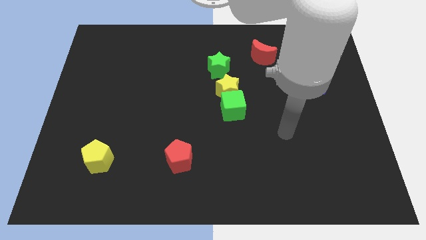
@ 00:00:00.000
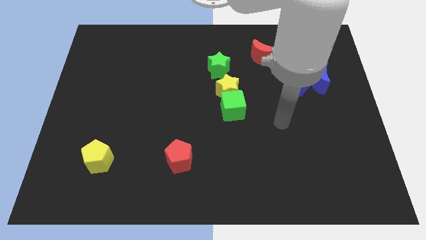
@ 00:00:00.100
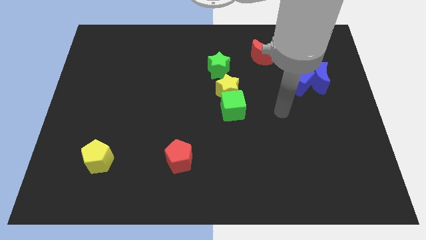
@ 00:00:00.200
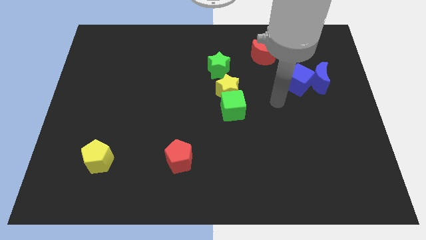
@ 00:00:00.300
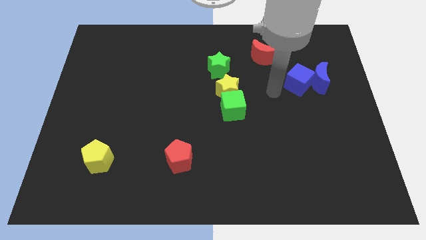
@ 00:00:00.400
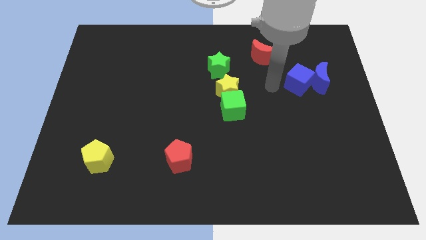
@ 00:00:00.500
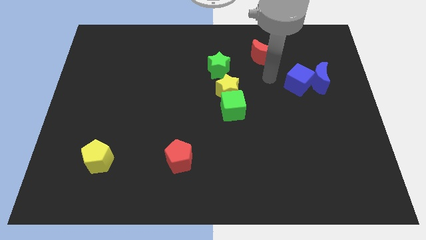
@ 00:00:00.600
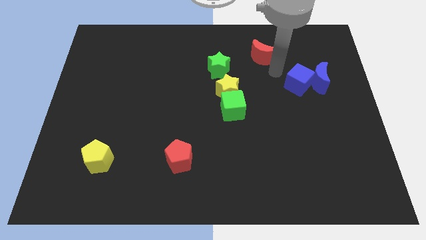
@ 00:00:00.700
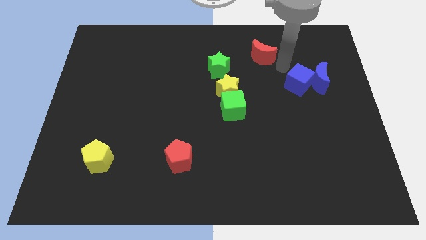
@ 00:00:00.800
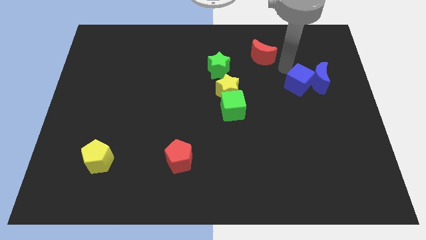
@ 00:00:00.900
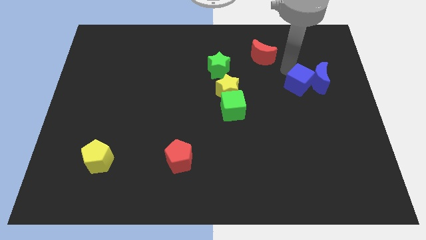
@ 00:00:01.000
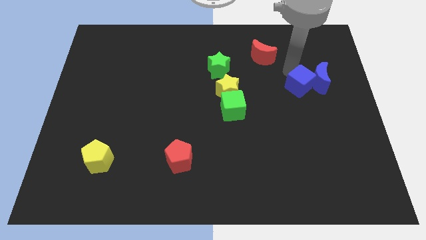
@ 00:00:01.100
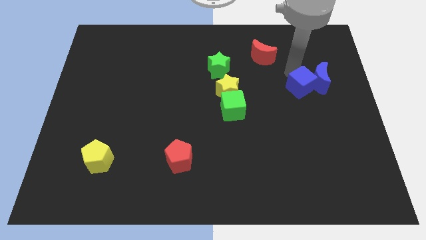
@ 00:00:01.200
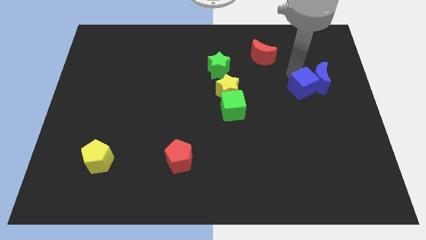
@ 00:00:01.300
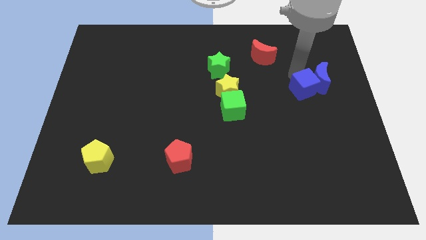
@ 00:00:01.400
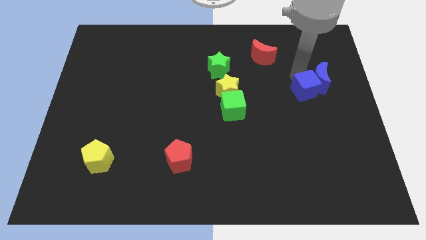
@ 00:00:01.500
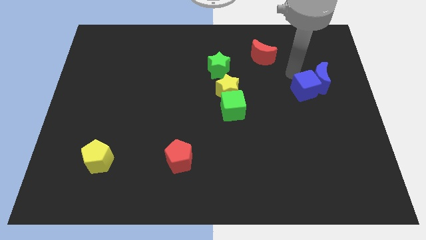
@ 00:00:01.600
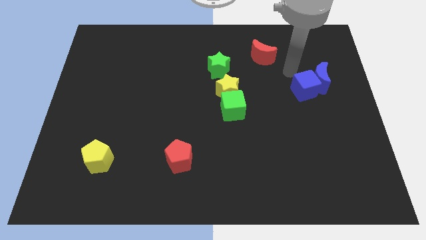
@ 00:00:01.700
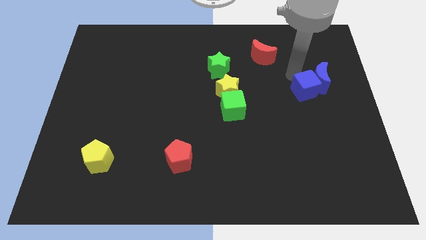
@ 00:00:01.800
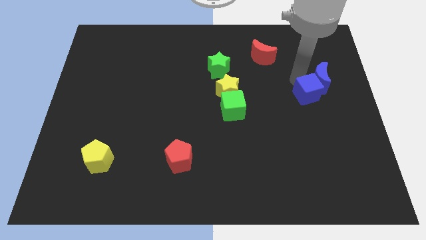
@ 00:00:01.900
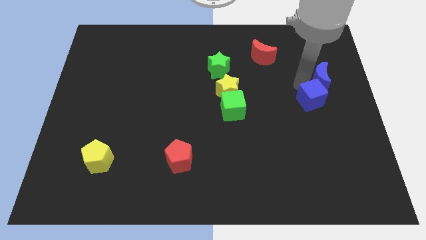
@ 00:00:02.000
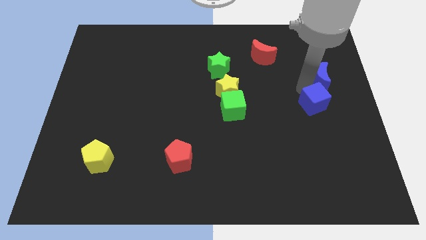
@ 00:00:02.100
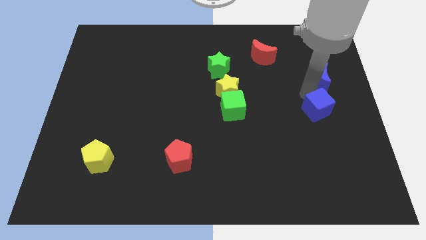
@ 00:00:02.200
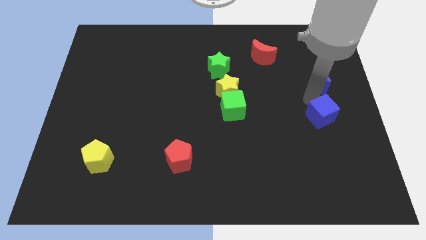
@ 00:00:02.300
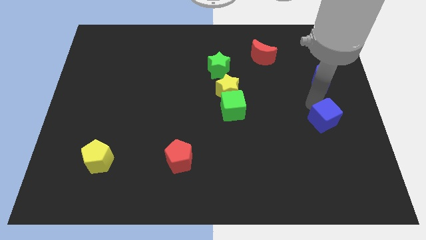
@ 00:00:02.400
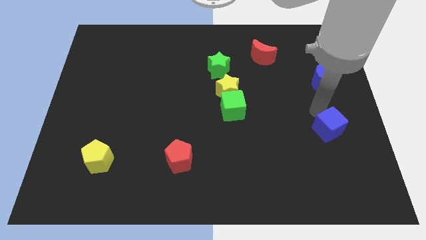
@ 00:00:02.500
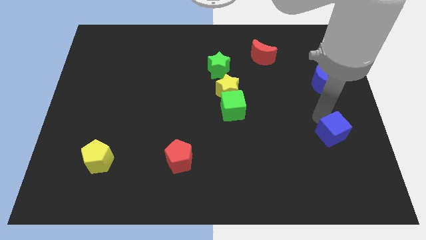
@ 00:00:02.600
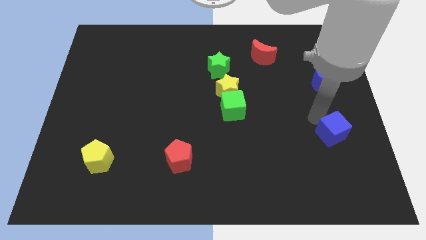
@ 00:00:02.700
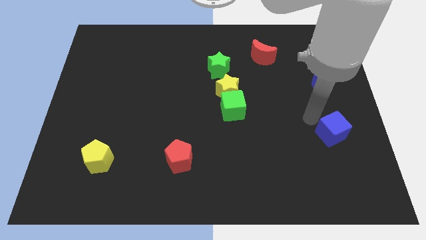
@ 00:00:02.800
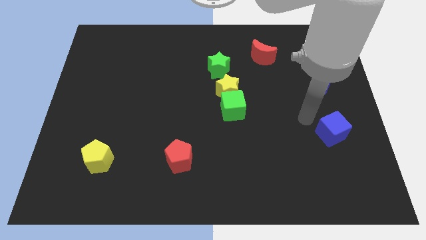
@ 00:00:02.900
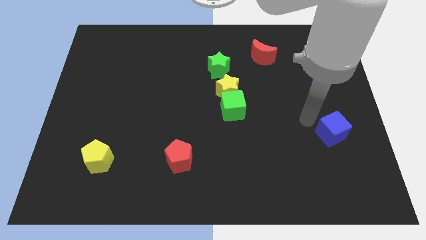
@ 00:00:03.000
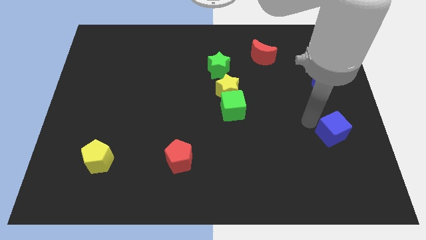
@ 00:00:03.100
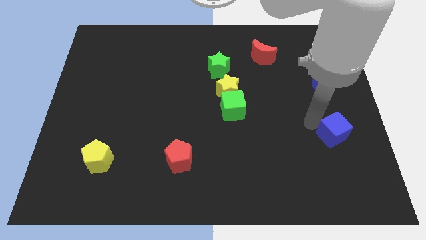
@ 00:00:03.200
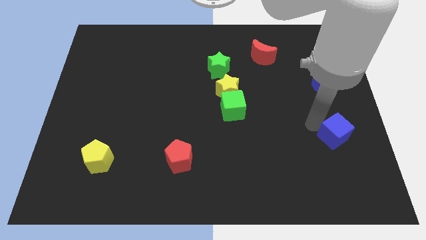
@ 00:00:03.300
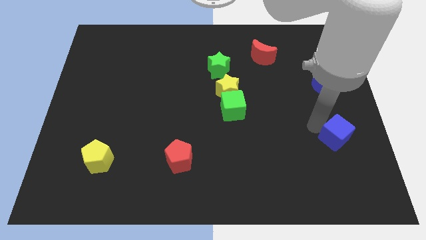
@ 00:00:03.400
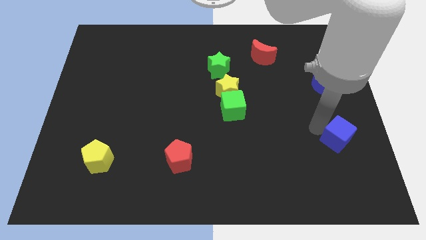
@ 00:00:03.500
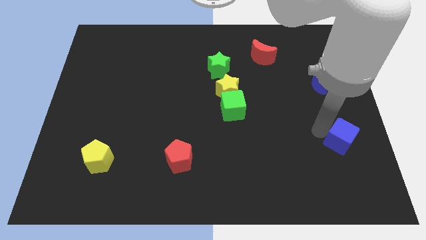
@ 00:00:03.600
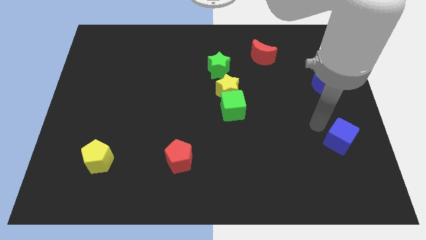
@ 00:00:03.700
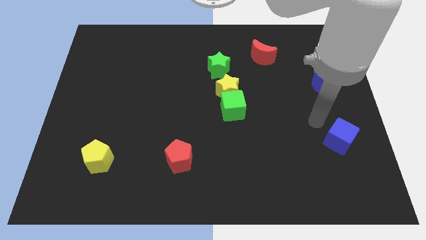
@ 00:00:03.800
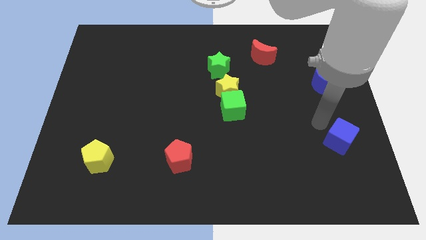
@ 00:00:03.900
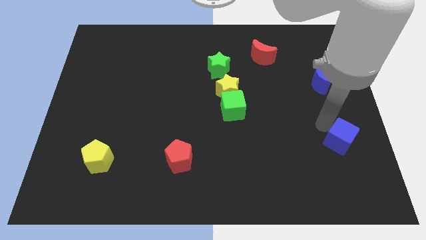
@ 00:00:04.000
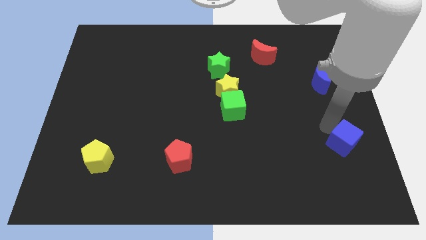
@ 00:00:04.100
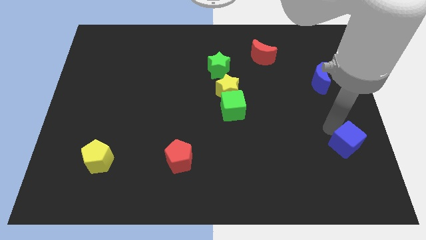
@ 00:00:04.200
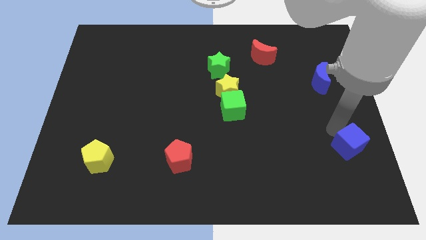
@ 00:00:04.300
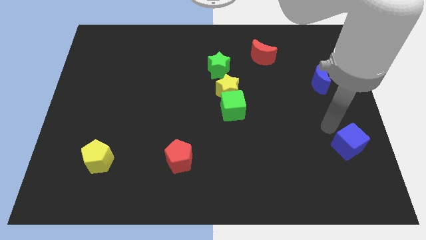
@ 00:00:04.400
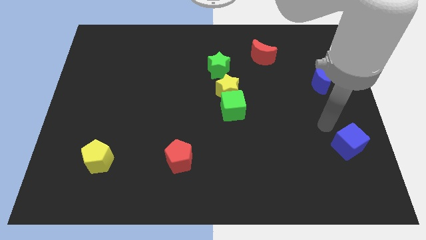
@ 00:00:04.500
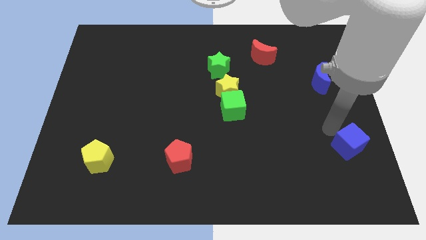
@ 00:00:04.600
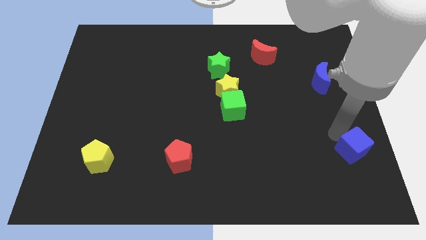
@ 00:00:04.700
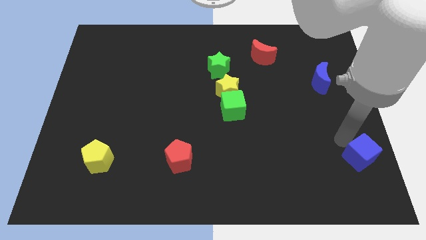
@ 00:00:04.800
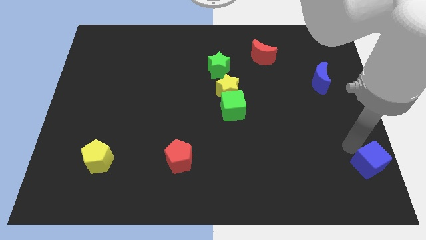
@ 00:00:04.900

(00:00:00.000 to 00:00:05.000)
move the blue cube to the lower right corner

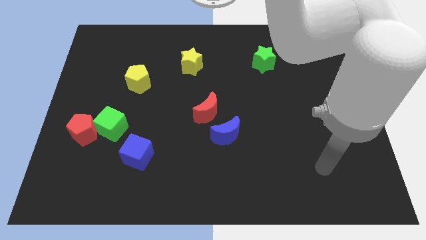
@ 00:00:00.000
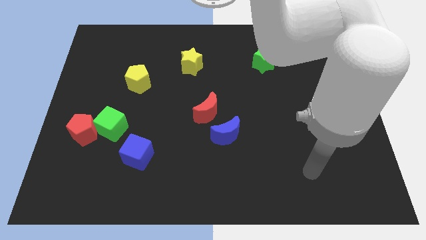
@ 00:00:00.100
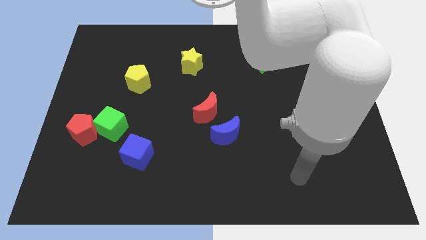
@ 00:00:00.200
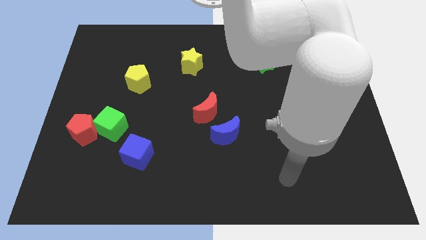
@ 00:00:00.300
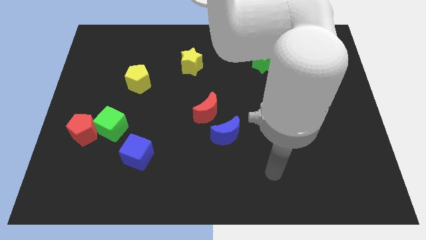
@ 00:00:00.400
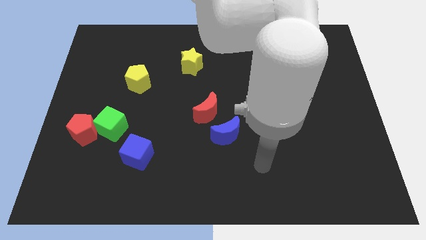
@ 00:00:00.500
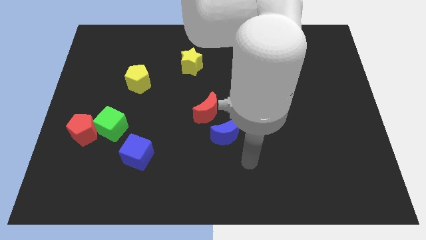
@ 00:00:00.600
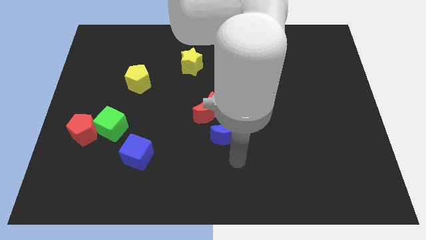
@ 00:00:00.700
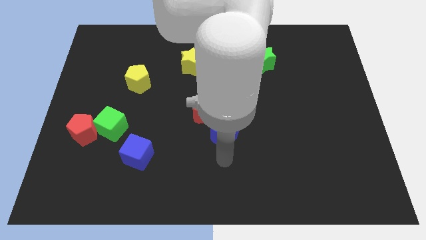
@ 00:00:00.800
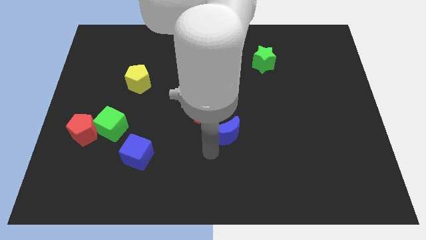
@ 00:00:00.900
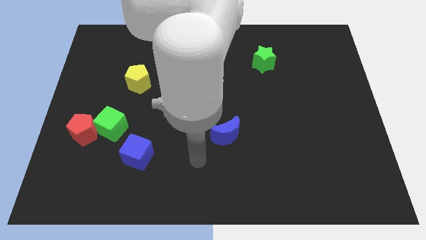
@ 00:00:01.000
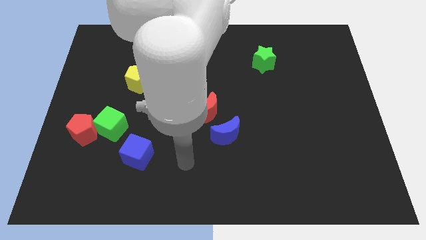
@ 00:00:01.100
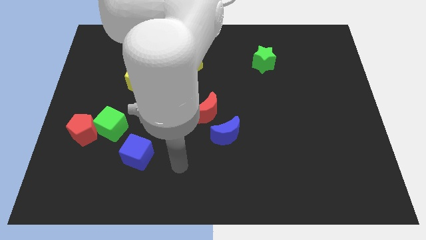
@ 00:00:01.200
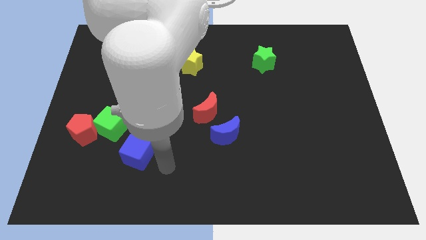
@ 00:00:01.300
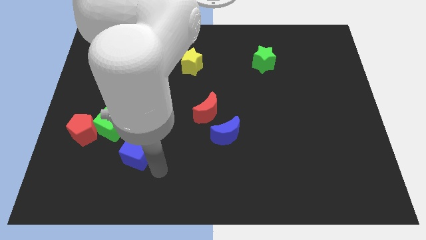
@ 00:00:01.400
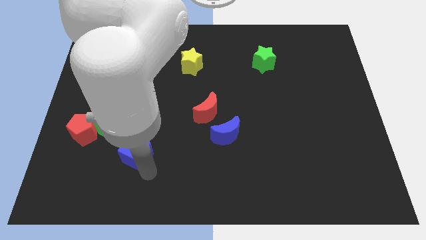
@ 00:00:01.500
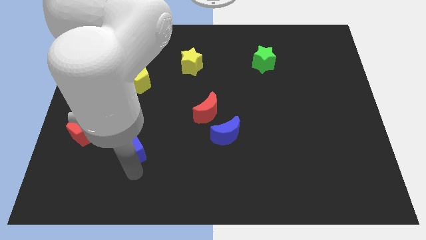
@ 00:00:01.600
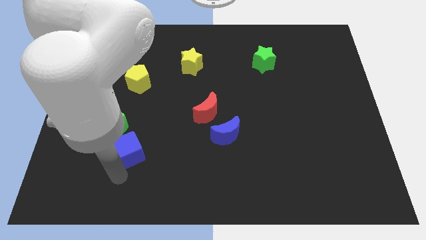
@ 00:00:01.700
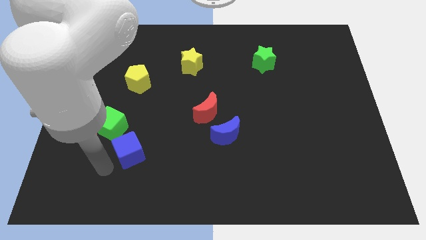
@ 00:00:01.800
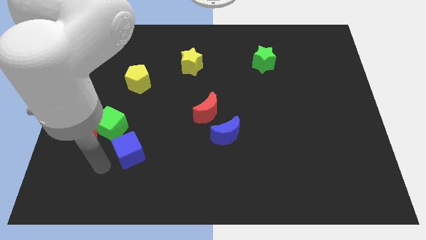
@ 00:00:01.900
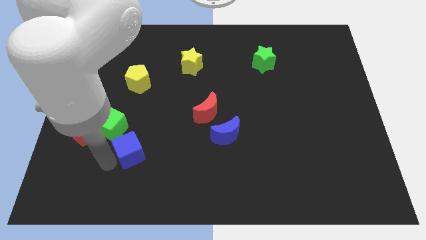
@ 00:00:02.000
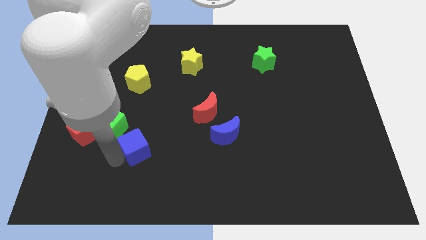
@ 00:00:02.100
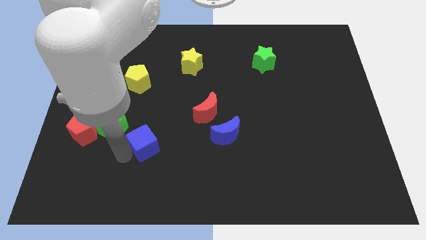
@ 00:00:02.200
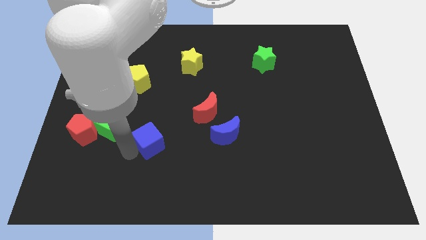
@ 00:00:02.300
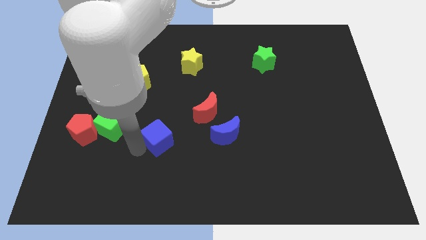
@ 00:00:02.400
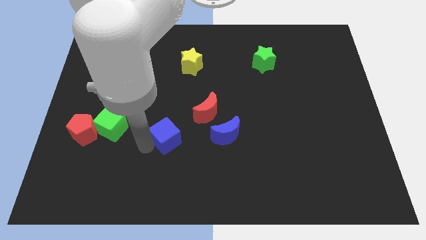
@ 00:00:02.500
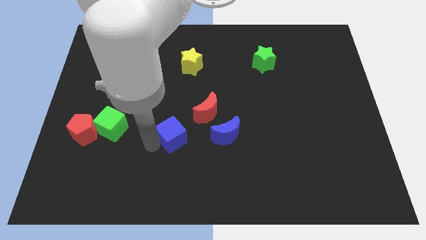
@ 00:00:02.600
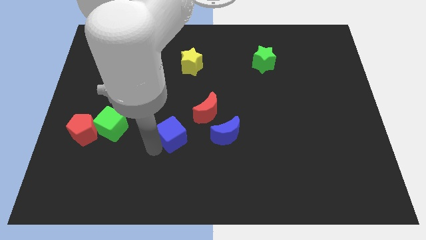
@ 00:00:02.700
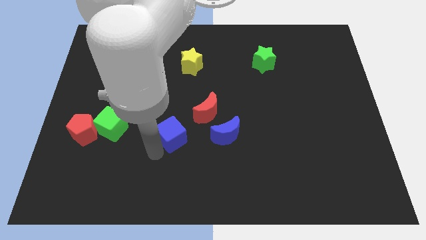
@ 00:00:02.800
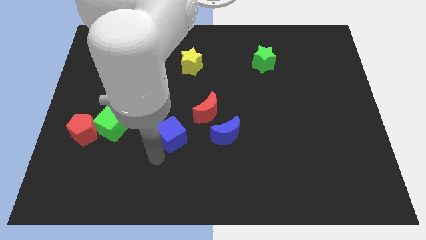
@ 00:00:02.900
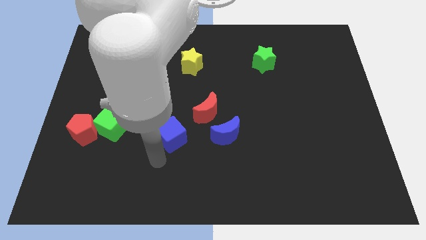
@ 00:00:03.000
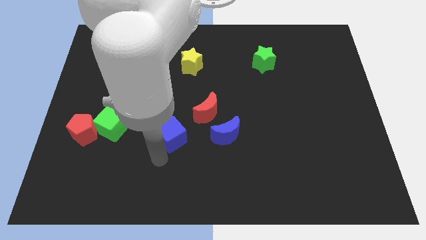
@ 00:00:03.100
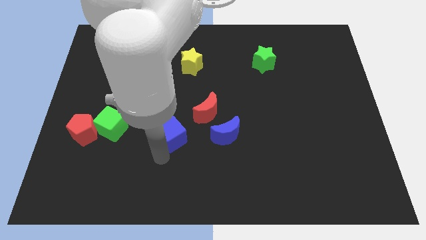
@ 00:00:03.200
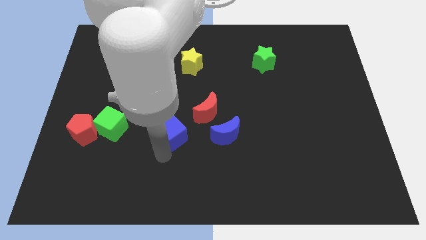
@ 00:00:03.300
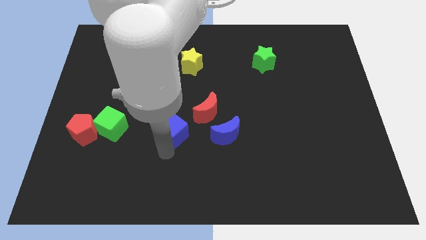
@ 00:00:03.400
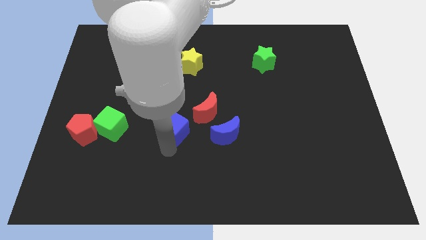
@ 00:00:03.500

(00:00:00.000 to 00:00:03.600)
put the blue cube to the center
